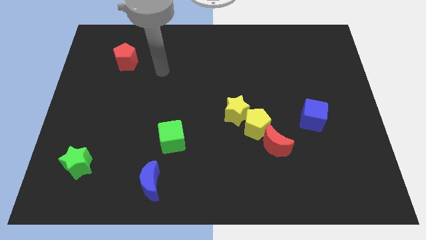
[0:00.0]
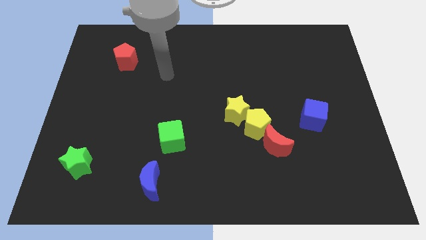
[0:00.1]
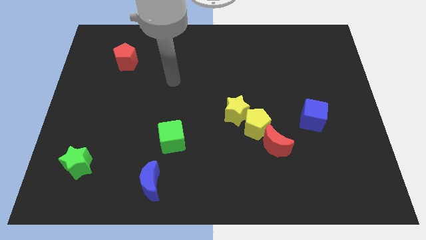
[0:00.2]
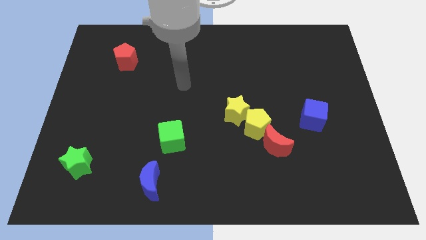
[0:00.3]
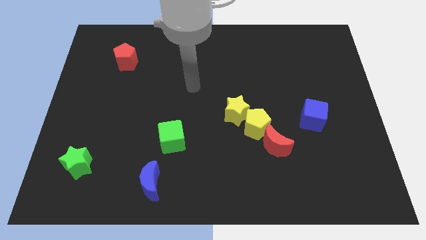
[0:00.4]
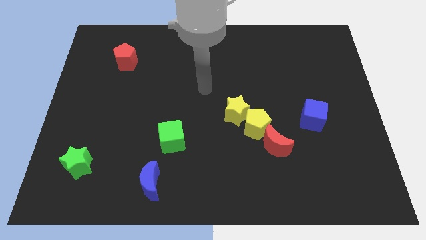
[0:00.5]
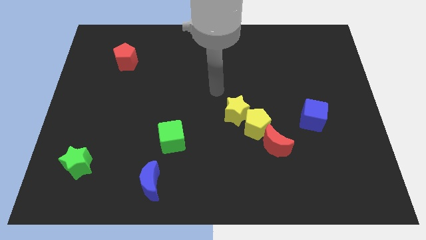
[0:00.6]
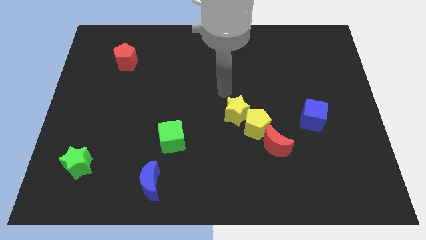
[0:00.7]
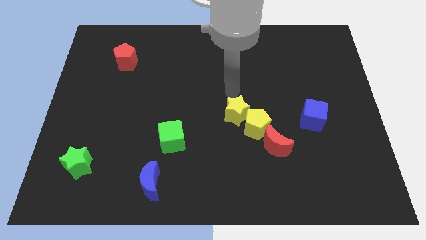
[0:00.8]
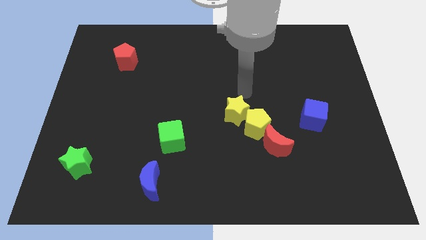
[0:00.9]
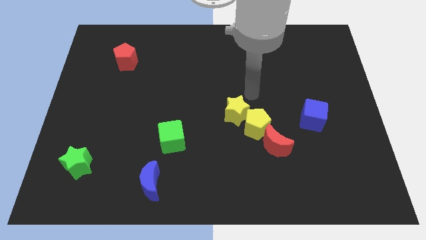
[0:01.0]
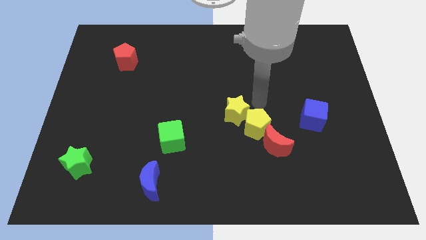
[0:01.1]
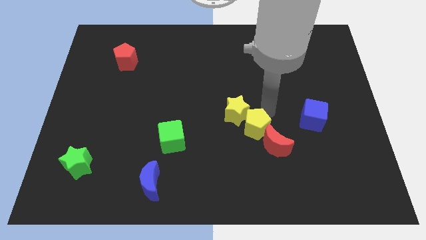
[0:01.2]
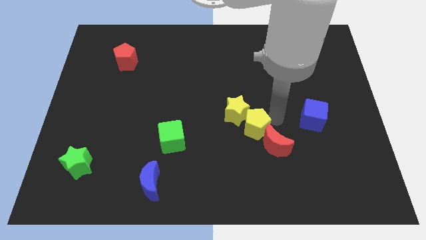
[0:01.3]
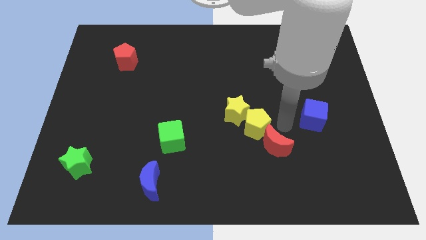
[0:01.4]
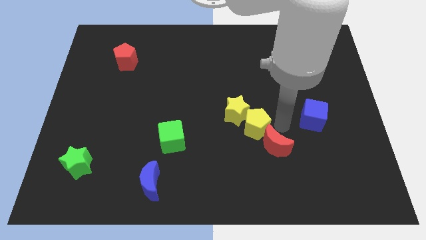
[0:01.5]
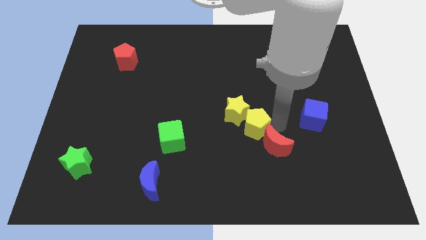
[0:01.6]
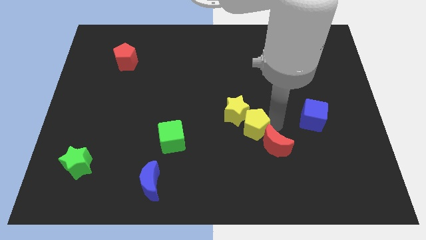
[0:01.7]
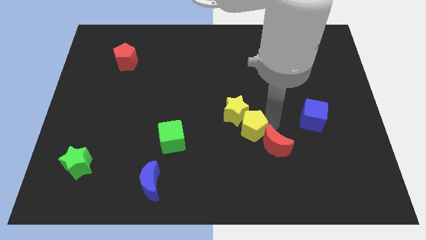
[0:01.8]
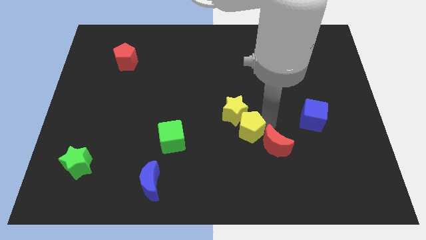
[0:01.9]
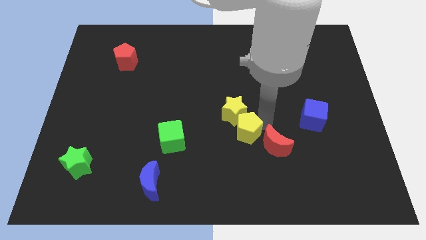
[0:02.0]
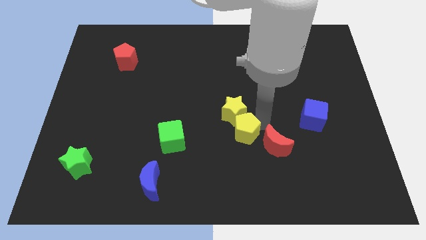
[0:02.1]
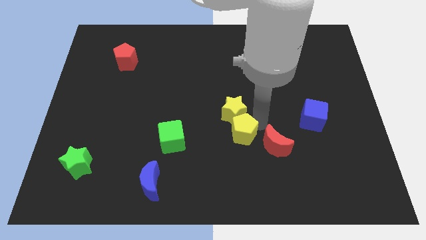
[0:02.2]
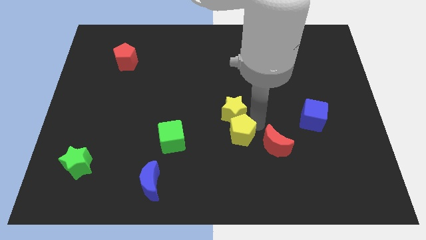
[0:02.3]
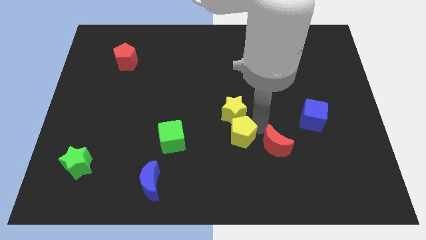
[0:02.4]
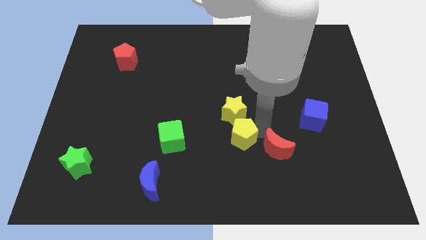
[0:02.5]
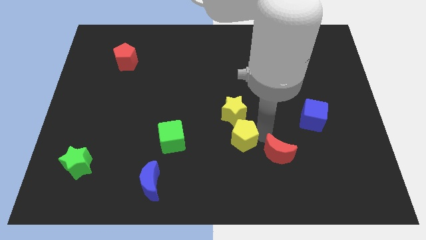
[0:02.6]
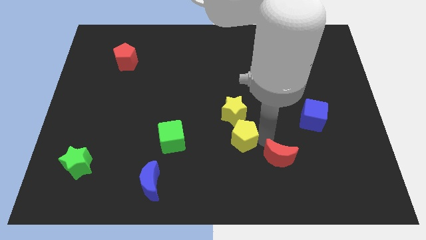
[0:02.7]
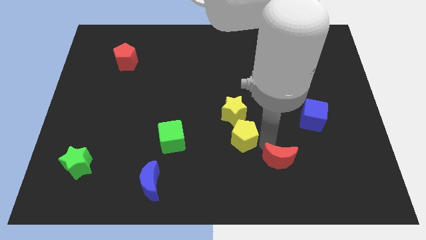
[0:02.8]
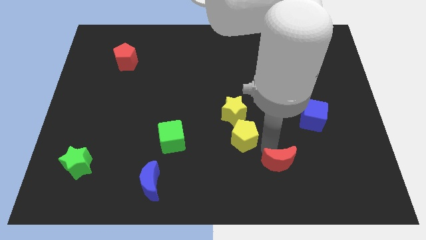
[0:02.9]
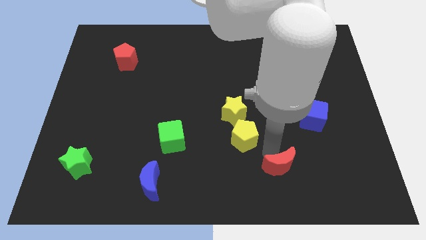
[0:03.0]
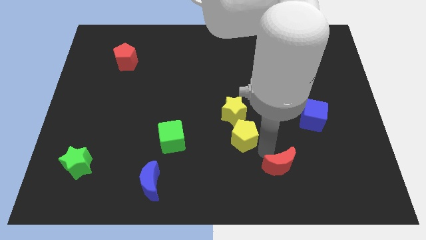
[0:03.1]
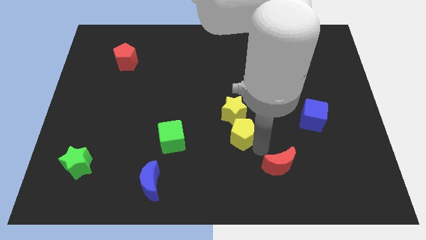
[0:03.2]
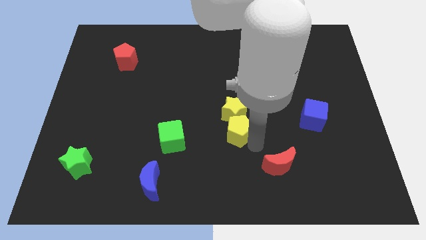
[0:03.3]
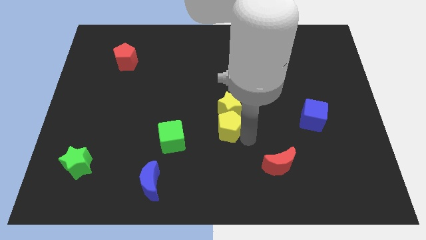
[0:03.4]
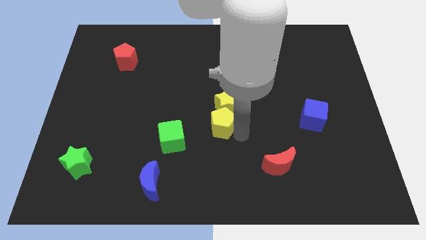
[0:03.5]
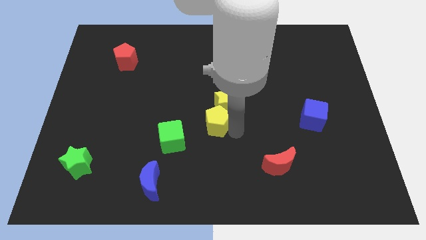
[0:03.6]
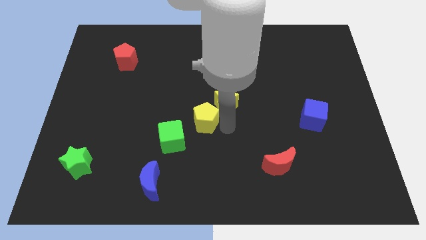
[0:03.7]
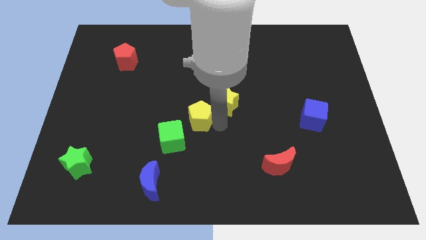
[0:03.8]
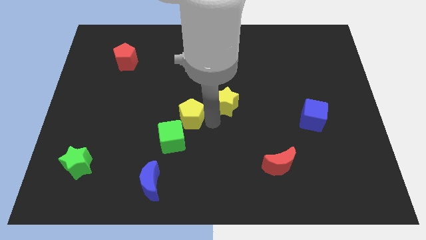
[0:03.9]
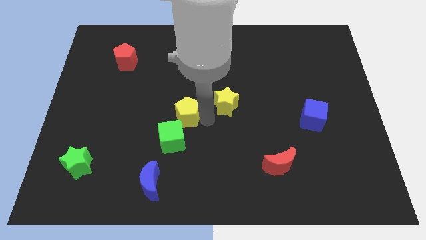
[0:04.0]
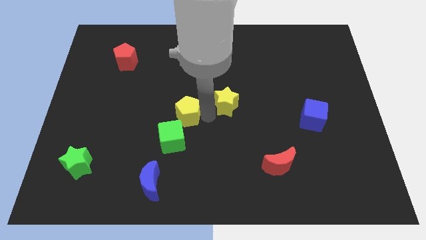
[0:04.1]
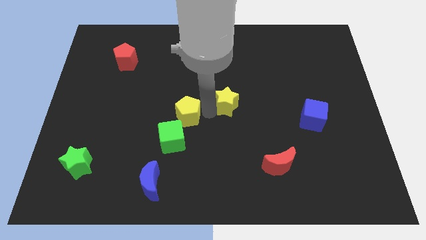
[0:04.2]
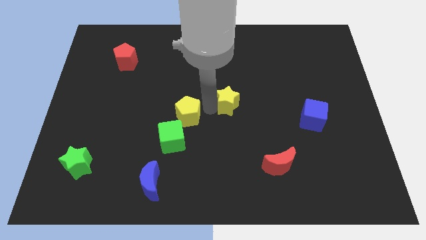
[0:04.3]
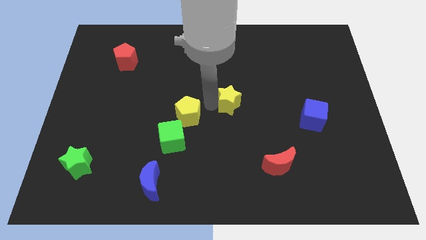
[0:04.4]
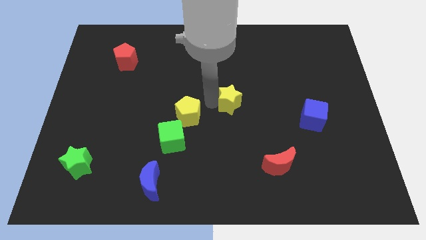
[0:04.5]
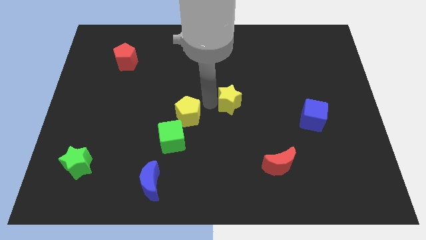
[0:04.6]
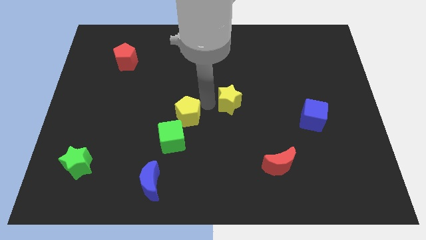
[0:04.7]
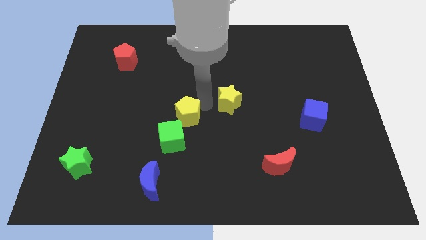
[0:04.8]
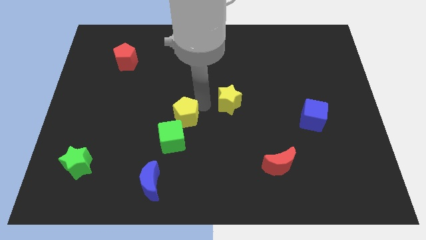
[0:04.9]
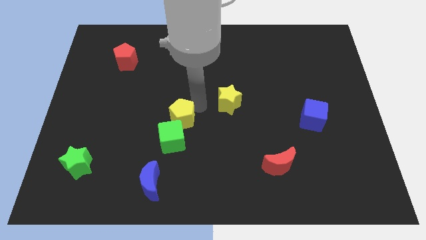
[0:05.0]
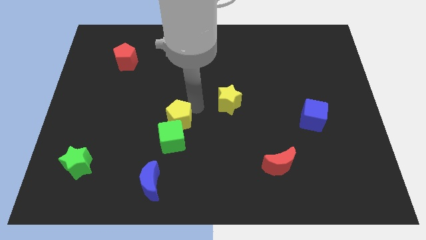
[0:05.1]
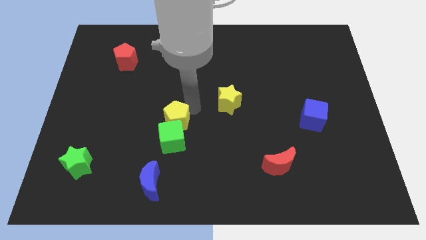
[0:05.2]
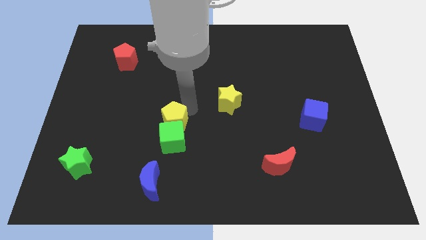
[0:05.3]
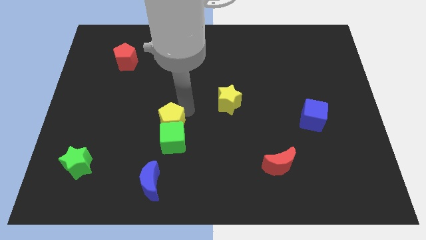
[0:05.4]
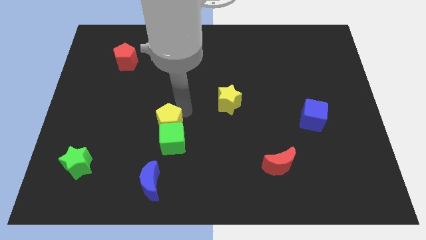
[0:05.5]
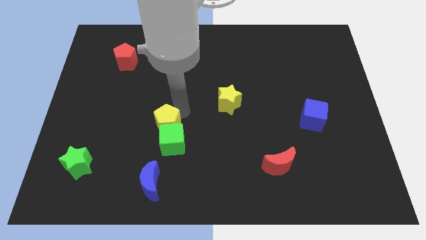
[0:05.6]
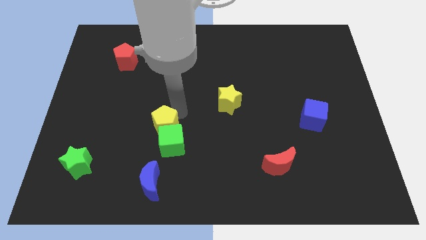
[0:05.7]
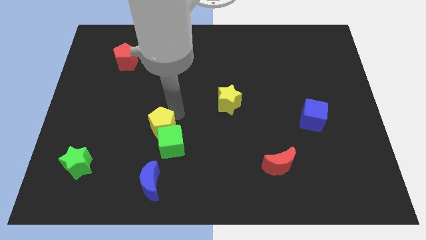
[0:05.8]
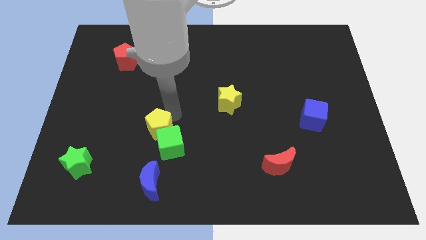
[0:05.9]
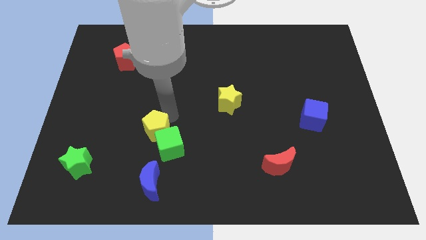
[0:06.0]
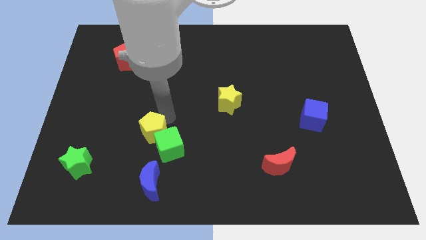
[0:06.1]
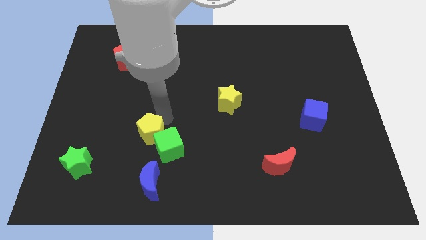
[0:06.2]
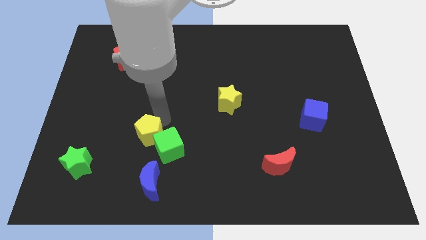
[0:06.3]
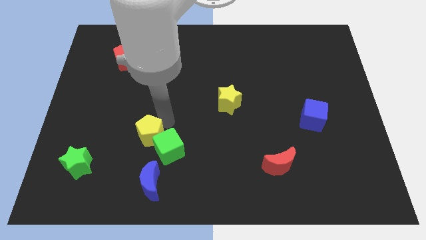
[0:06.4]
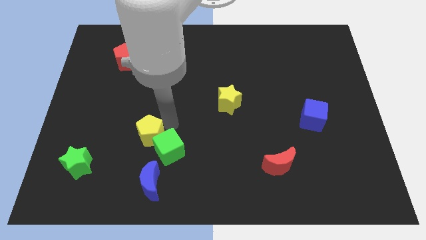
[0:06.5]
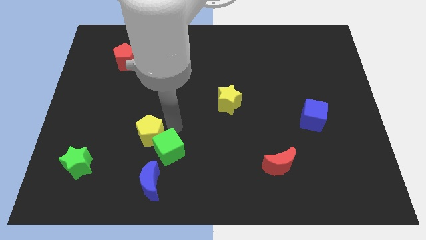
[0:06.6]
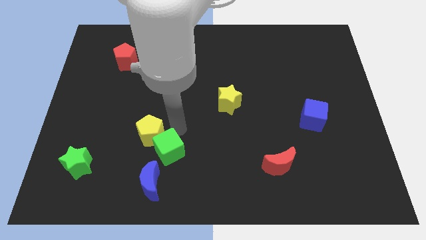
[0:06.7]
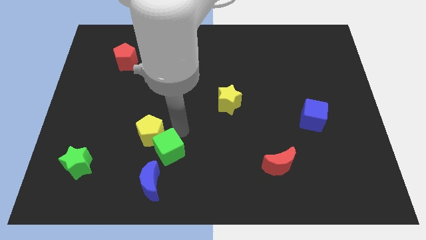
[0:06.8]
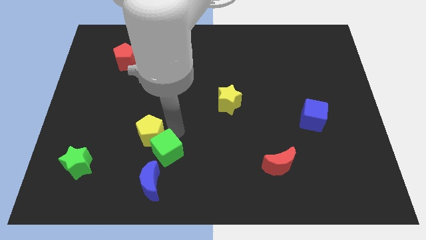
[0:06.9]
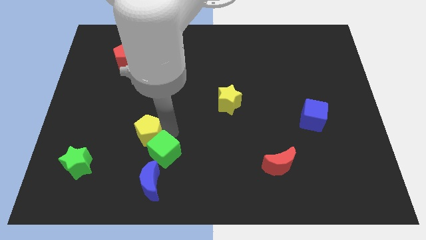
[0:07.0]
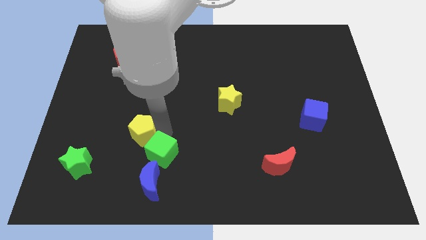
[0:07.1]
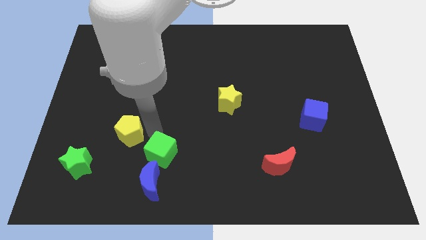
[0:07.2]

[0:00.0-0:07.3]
push the yellow pentagon to the top right of the green star
